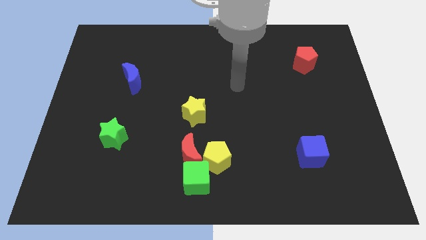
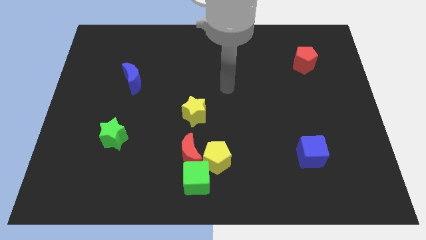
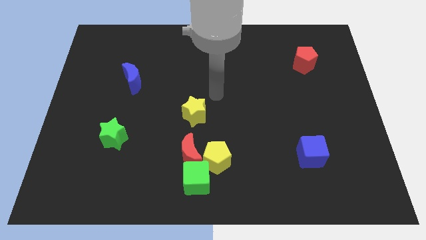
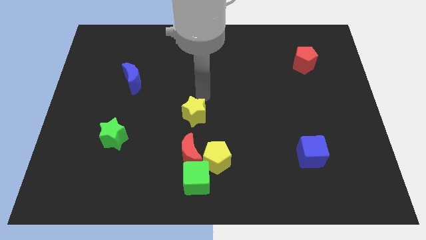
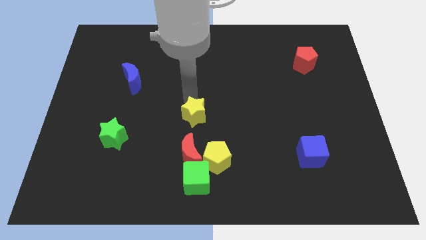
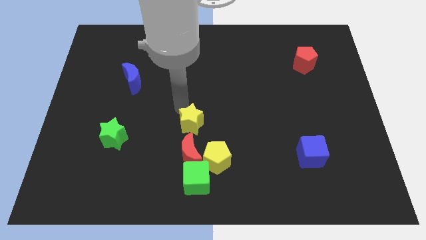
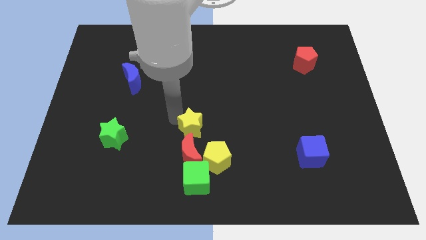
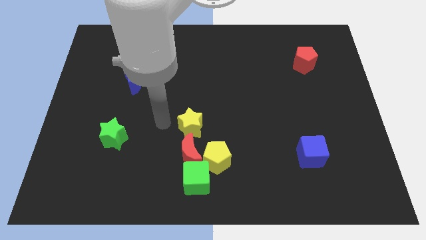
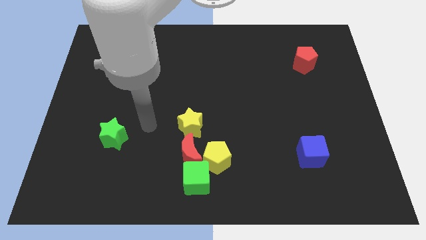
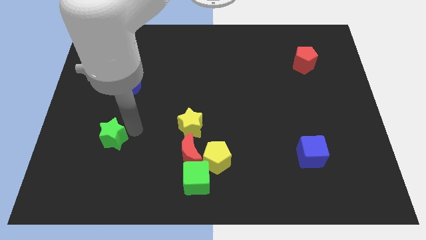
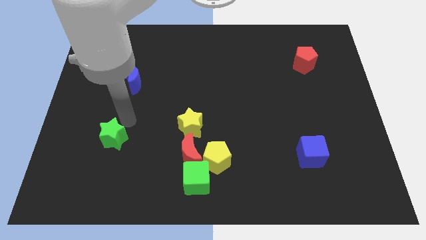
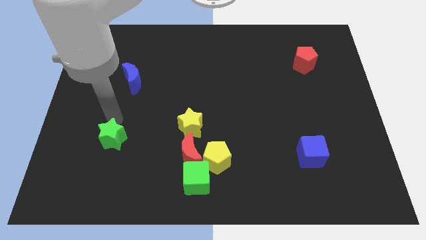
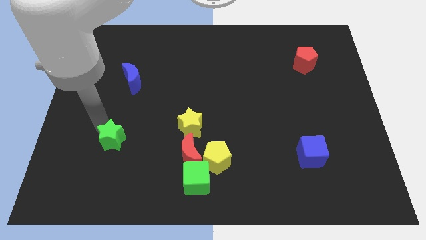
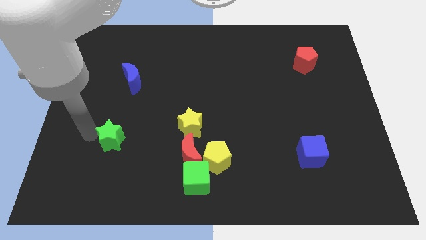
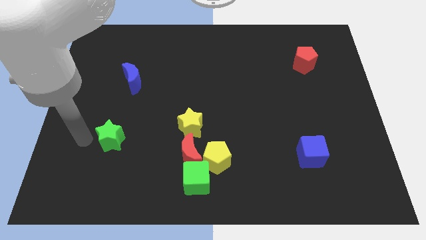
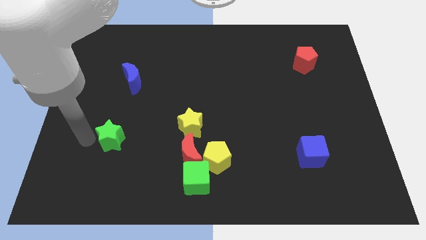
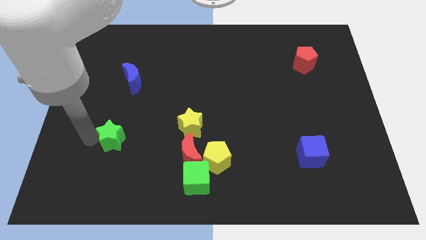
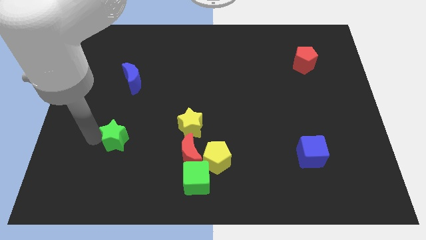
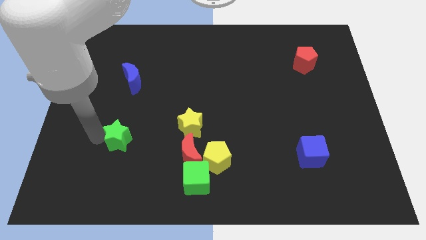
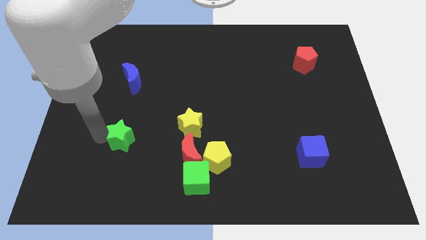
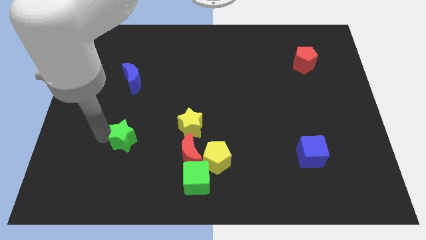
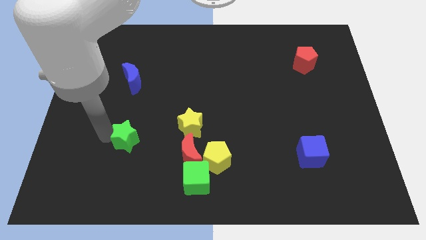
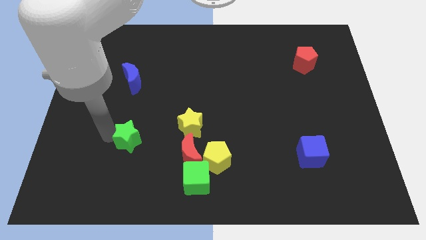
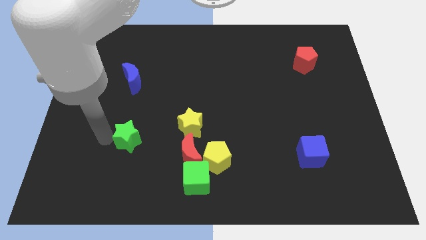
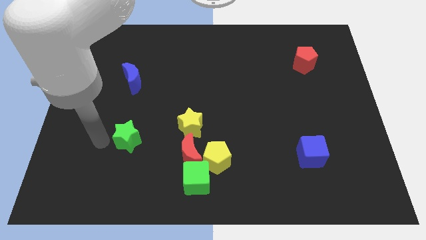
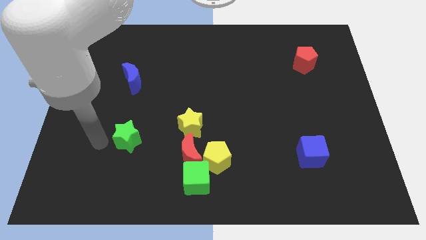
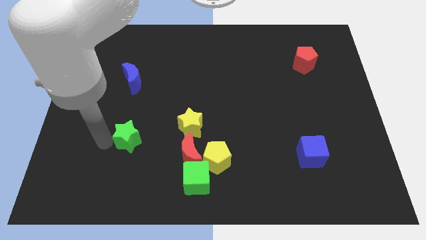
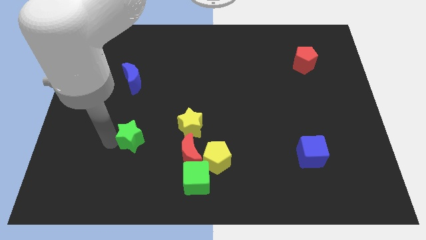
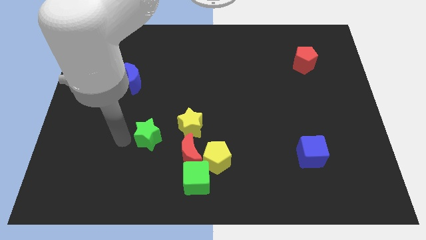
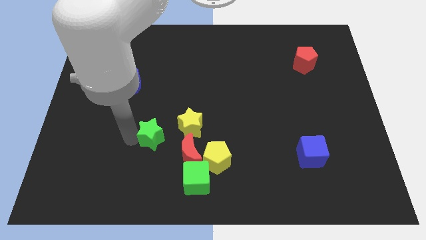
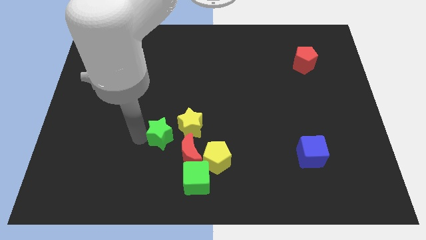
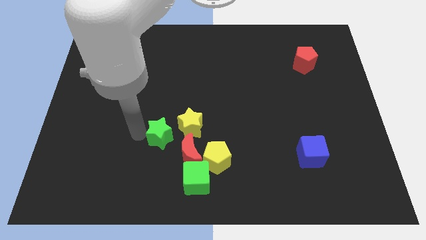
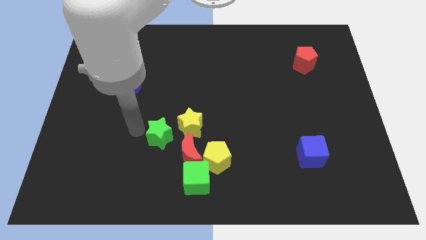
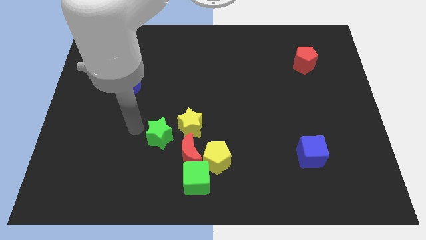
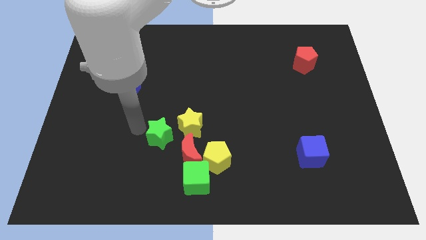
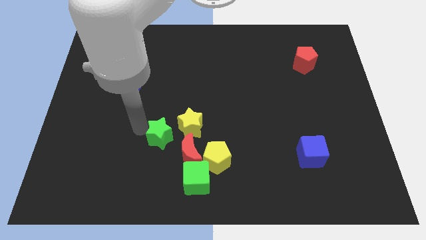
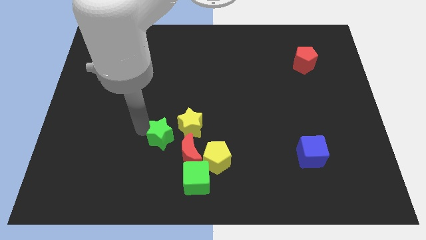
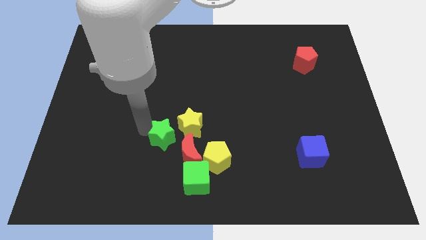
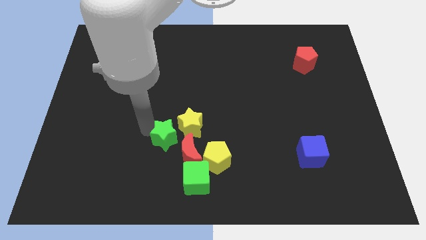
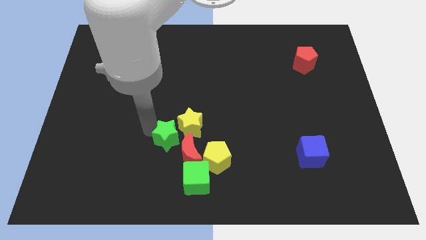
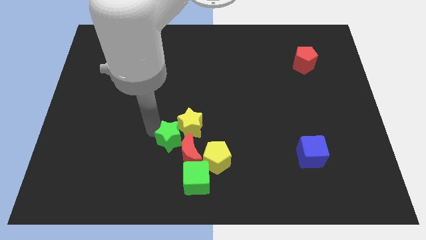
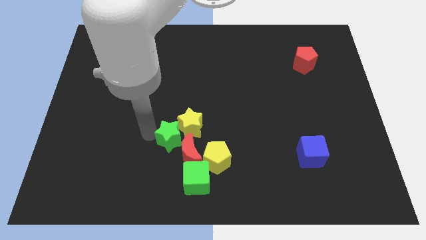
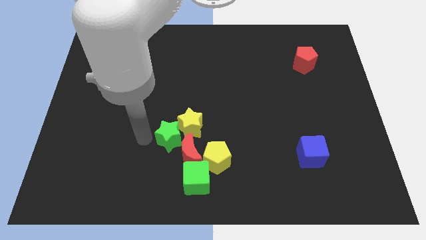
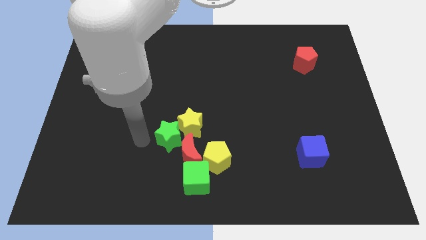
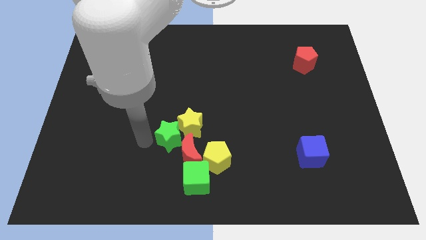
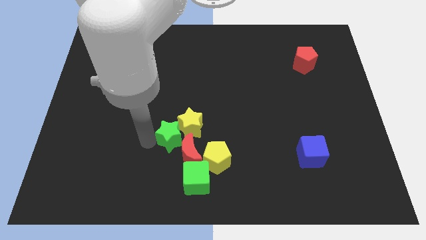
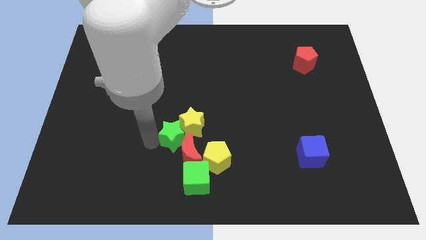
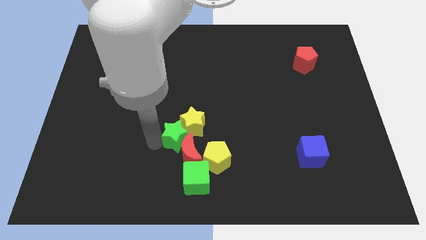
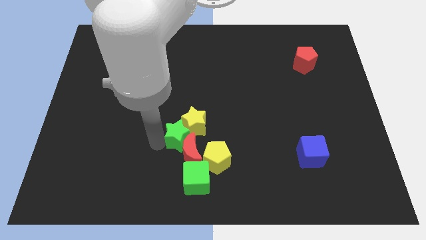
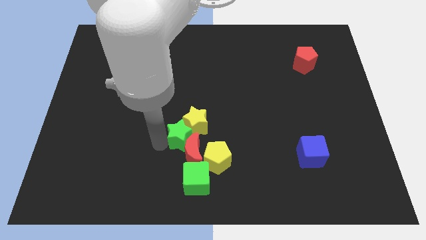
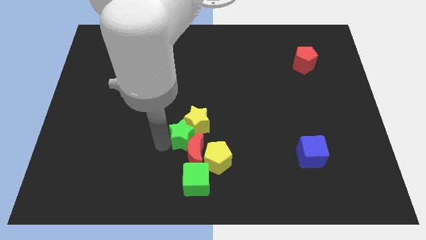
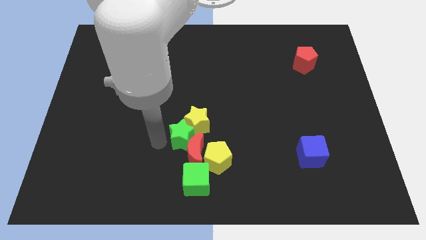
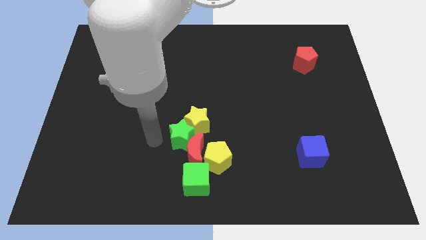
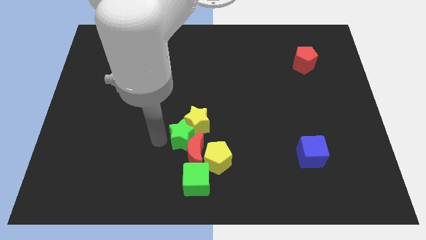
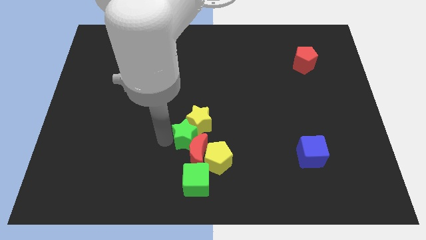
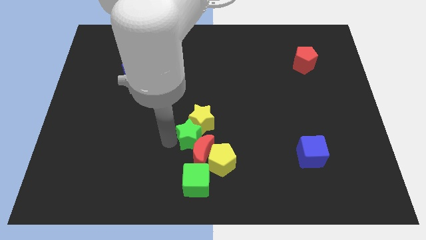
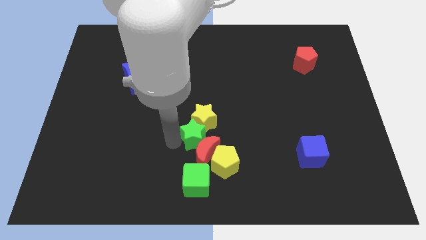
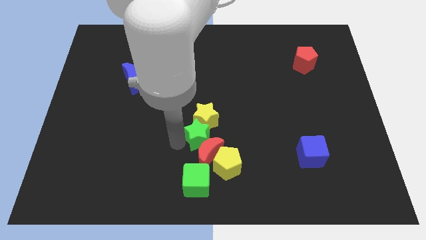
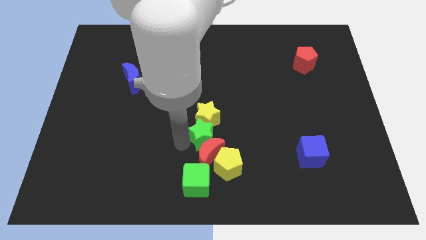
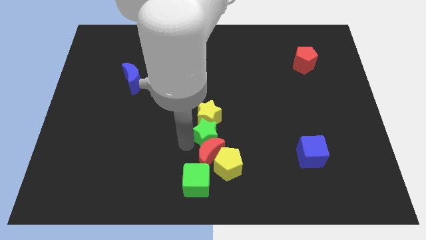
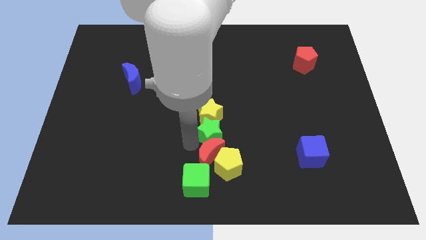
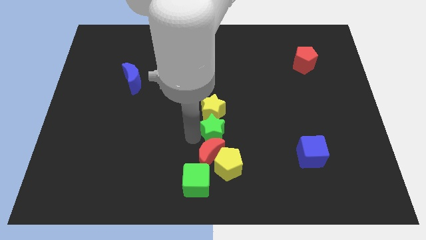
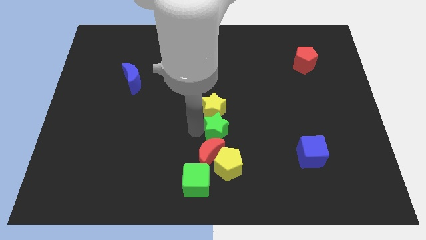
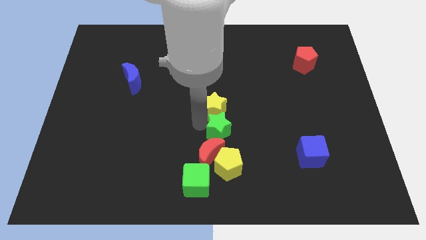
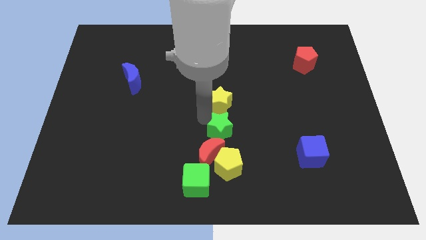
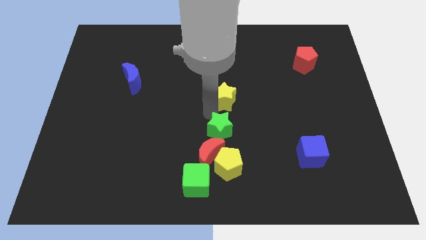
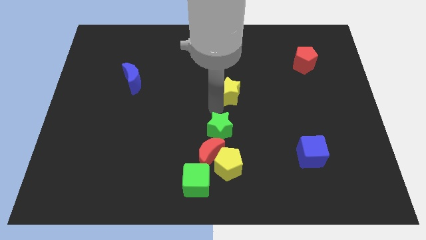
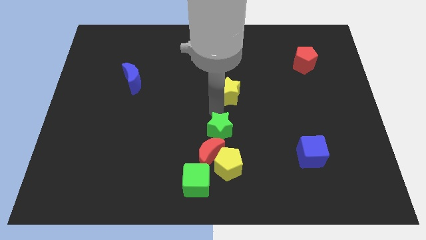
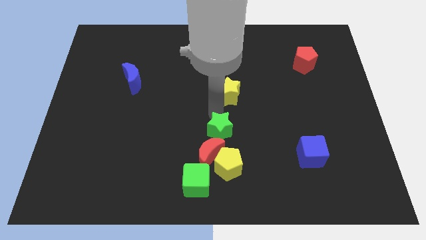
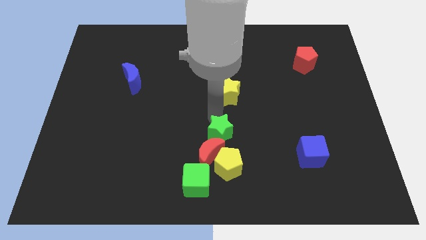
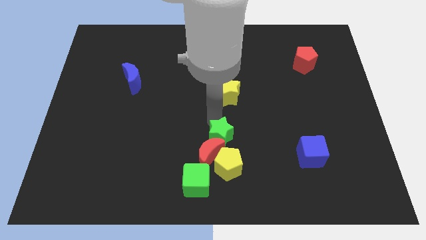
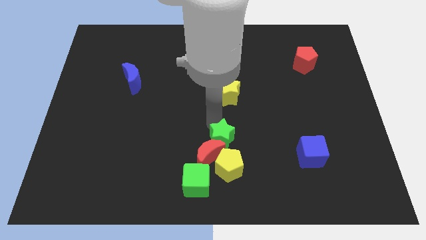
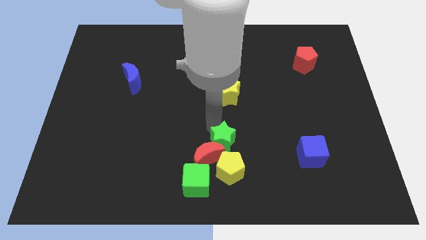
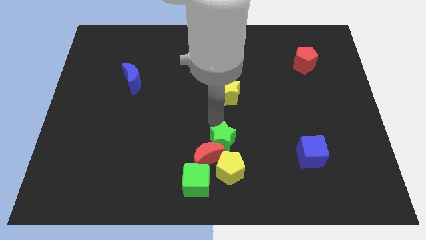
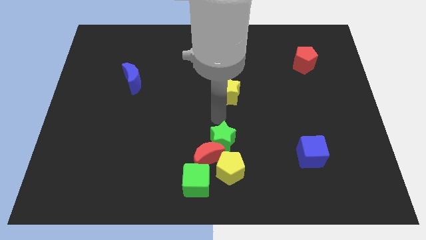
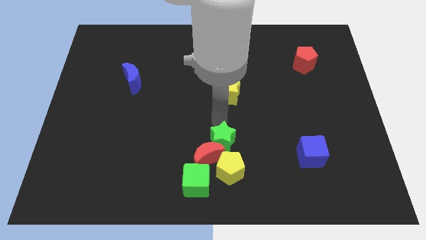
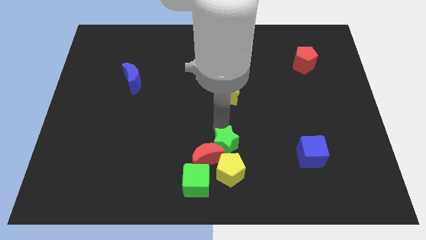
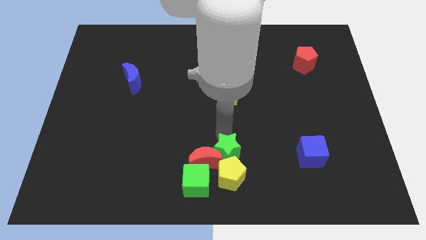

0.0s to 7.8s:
push the green star to the yellow pentagon

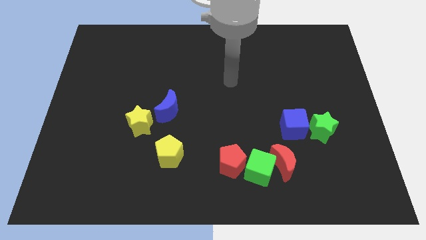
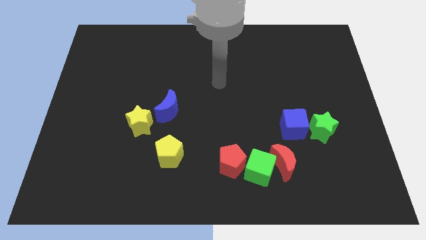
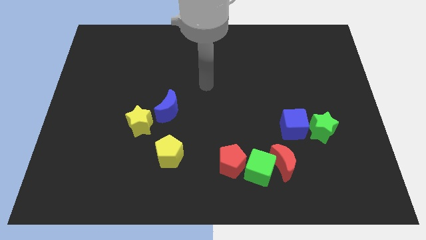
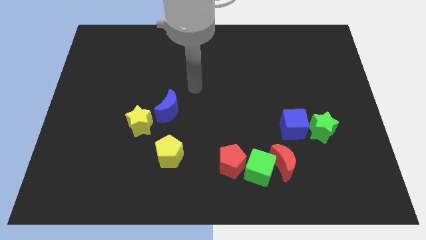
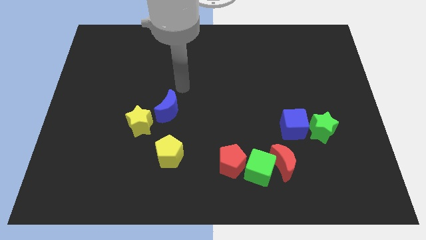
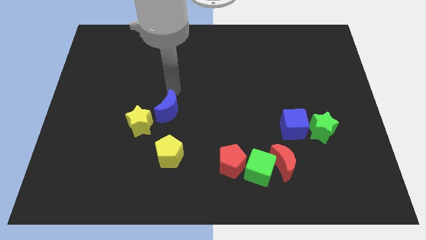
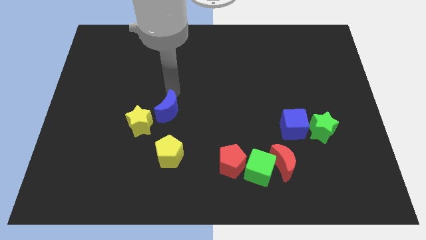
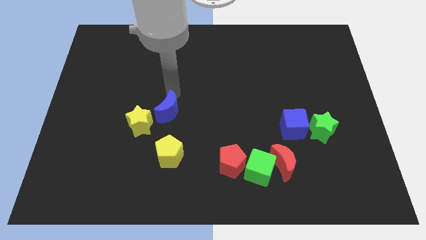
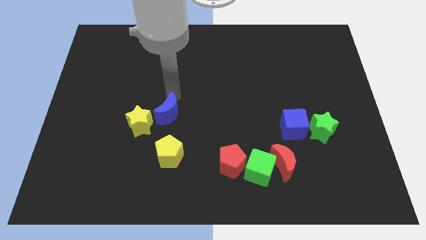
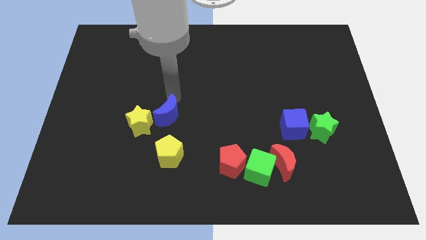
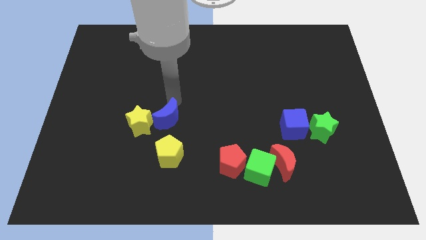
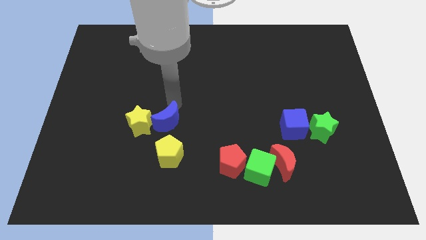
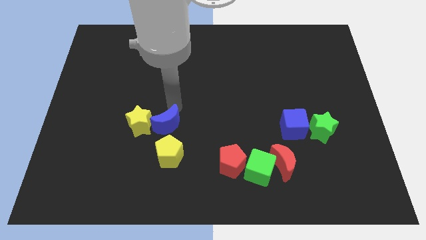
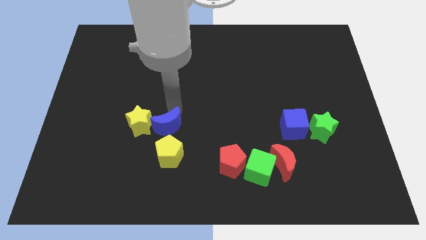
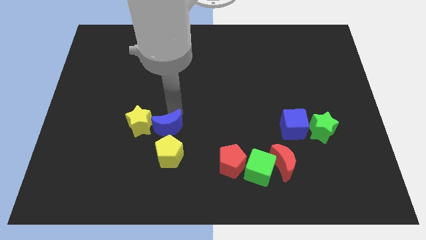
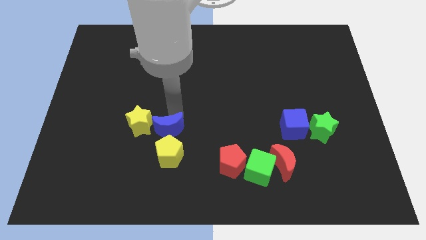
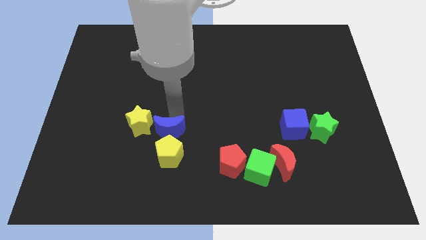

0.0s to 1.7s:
put the blue moon to the yellow pentagon
